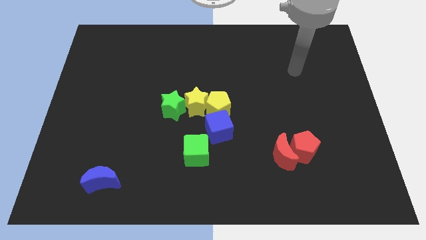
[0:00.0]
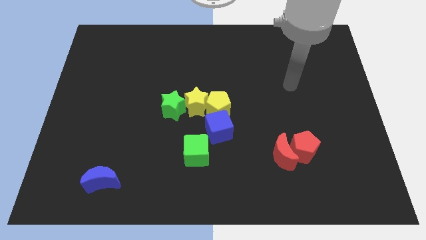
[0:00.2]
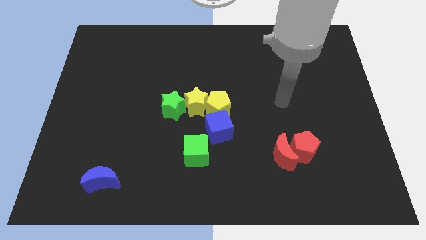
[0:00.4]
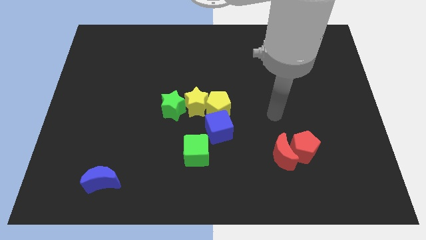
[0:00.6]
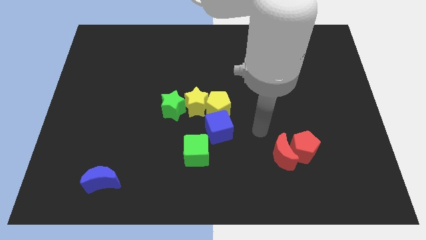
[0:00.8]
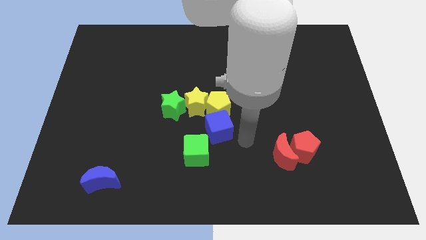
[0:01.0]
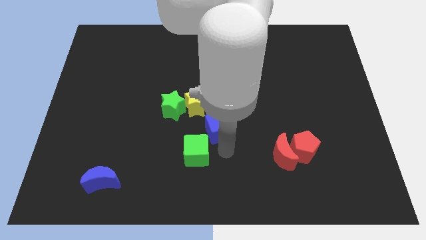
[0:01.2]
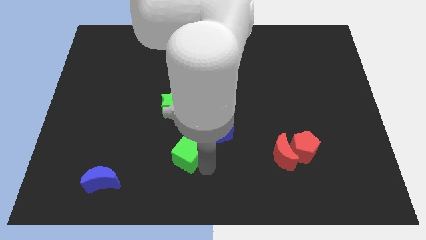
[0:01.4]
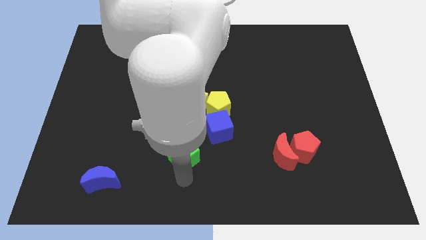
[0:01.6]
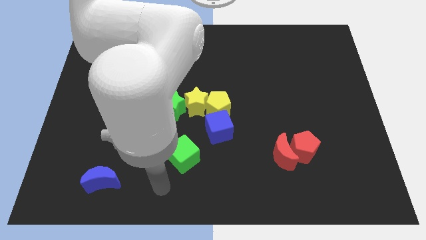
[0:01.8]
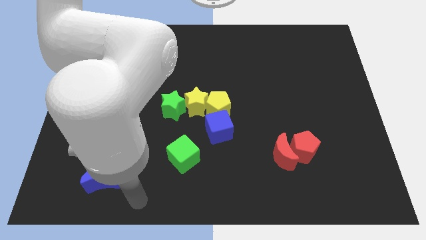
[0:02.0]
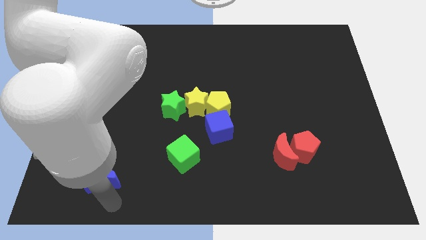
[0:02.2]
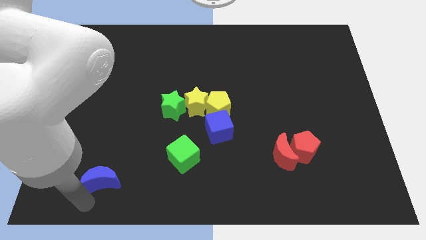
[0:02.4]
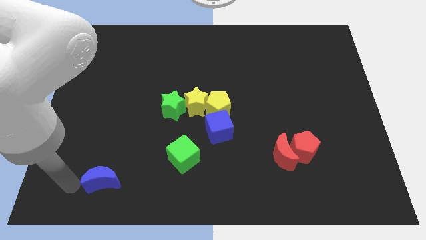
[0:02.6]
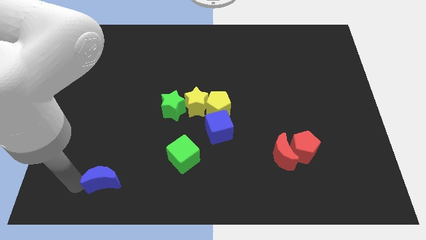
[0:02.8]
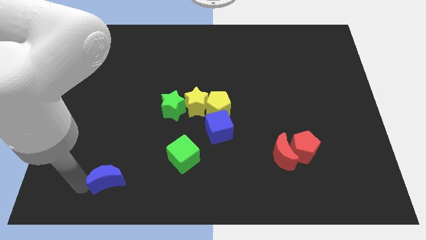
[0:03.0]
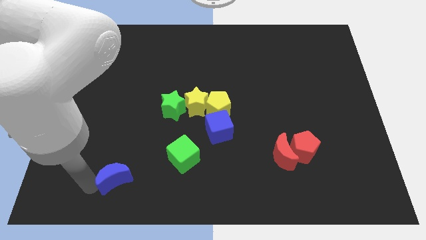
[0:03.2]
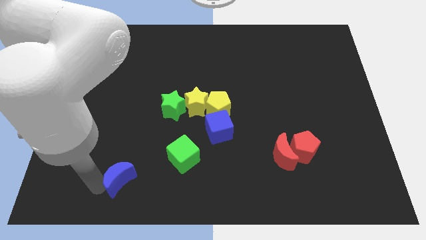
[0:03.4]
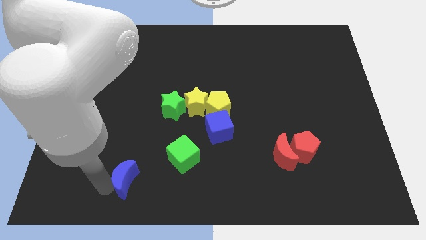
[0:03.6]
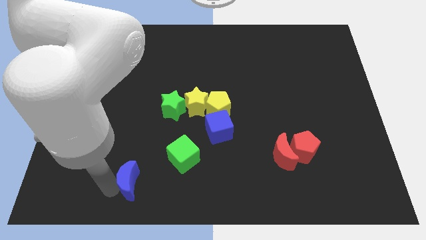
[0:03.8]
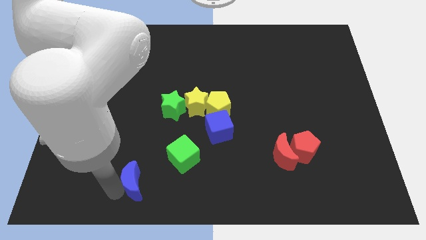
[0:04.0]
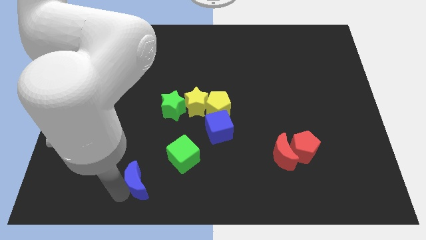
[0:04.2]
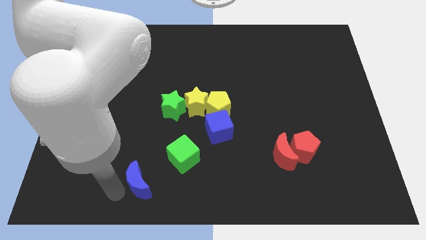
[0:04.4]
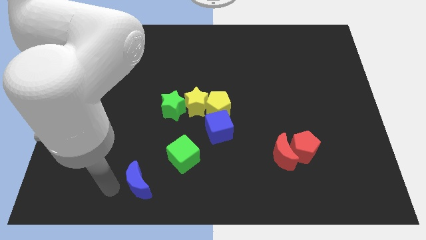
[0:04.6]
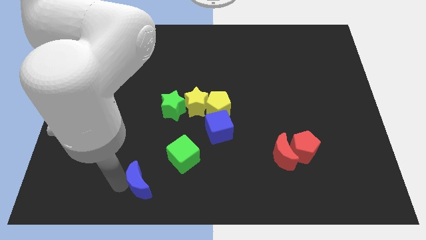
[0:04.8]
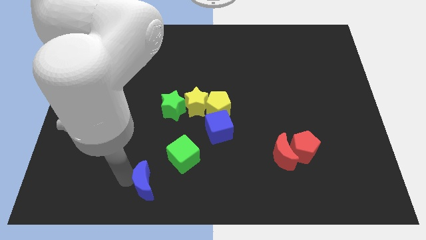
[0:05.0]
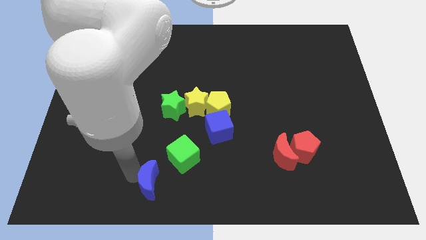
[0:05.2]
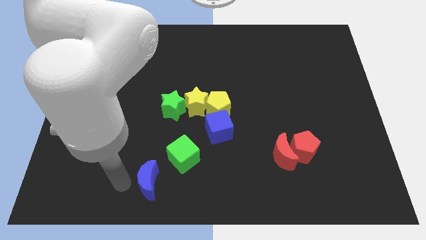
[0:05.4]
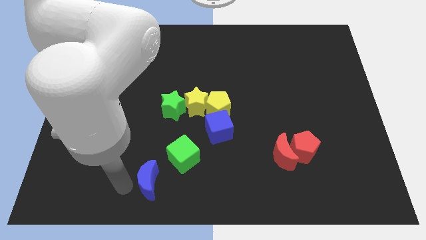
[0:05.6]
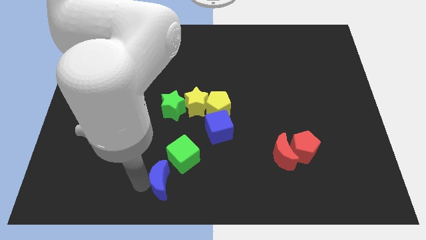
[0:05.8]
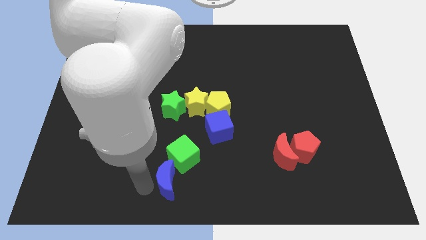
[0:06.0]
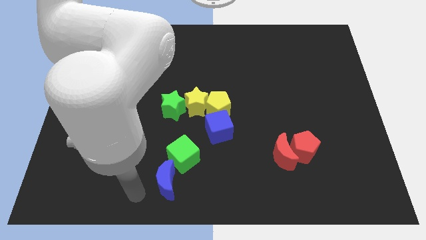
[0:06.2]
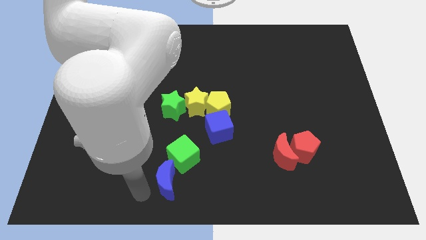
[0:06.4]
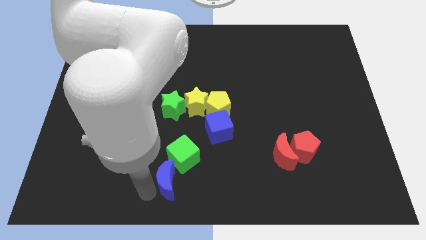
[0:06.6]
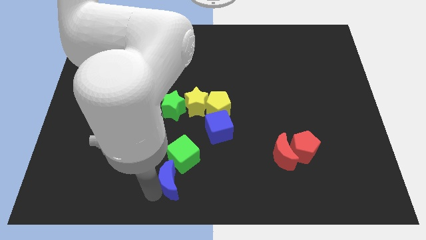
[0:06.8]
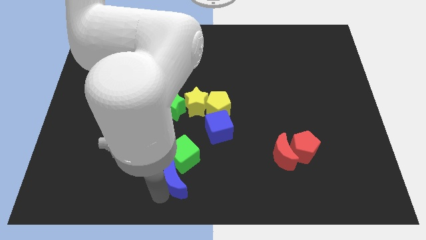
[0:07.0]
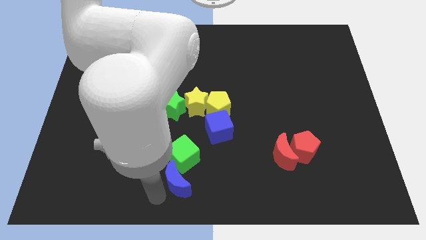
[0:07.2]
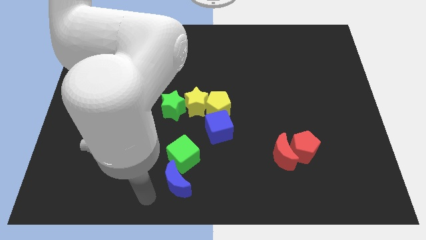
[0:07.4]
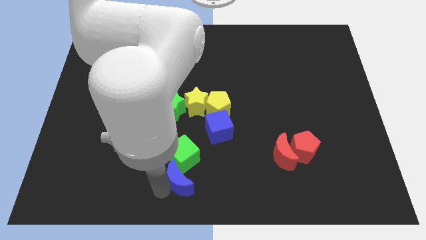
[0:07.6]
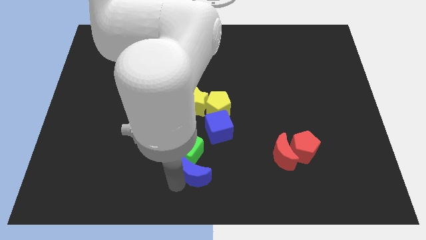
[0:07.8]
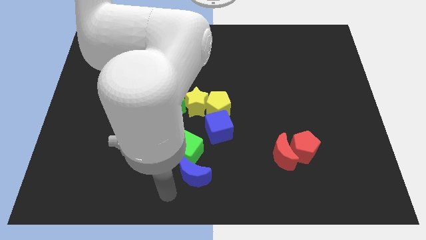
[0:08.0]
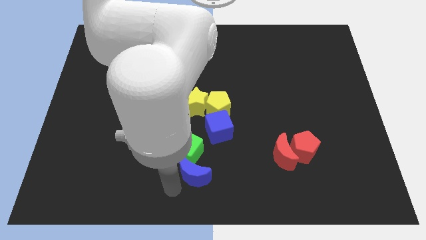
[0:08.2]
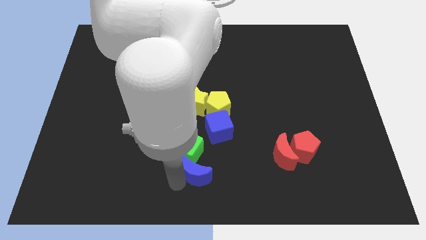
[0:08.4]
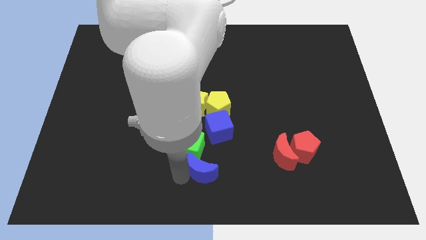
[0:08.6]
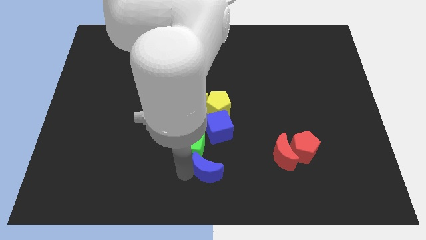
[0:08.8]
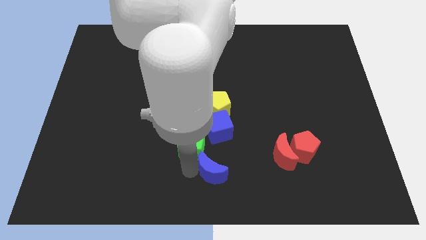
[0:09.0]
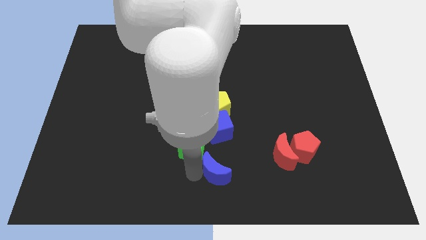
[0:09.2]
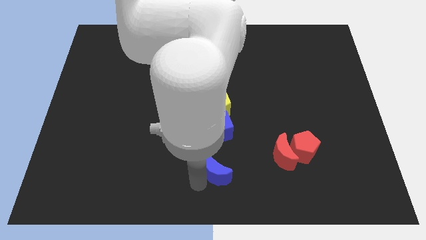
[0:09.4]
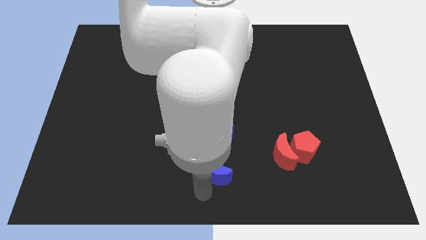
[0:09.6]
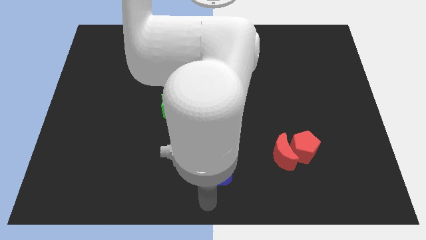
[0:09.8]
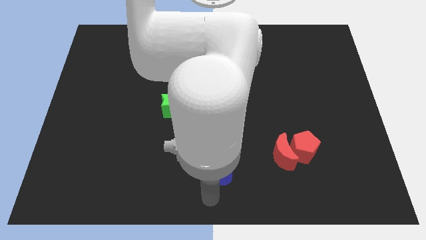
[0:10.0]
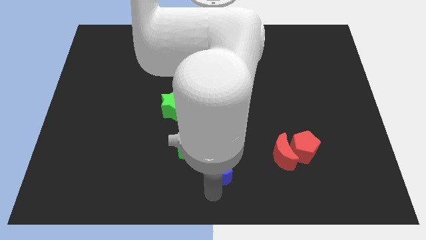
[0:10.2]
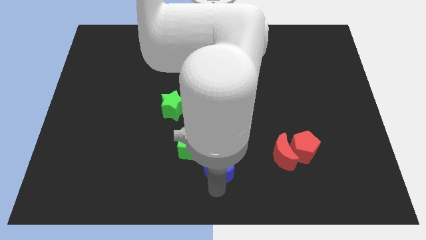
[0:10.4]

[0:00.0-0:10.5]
put the blue moon just left of the red moon

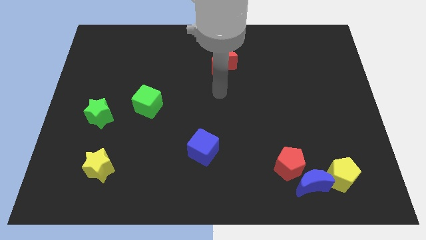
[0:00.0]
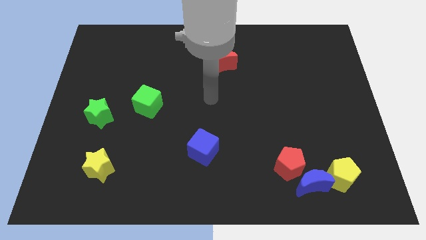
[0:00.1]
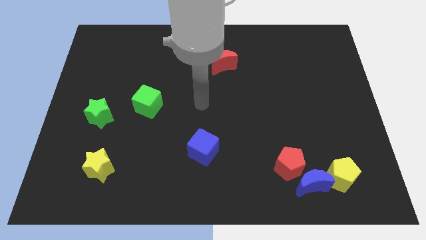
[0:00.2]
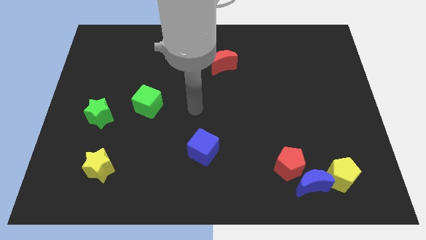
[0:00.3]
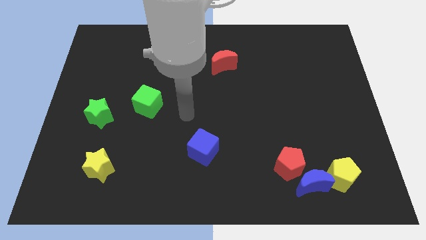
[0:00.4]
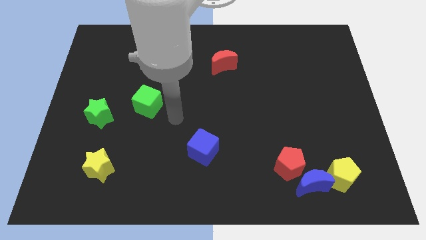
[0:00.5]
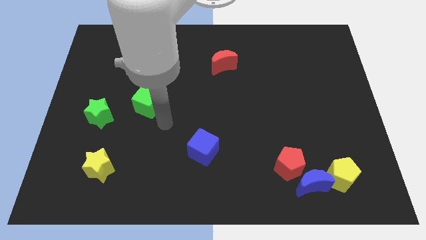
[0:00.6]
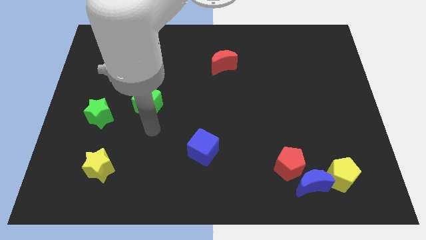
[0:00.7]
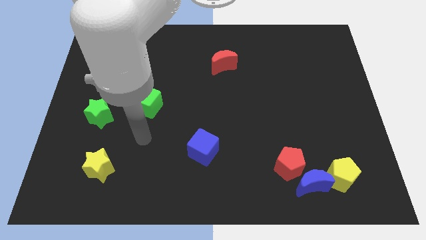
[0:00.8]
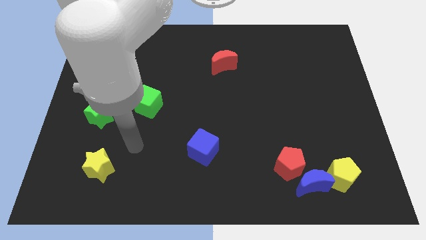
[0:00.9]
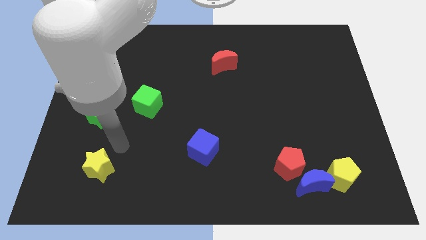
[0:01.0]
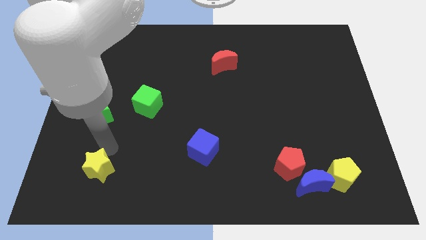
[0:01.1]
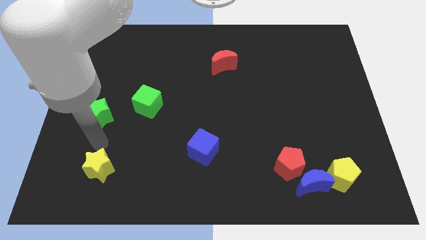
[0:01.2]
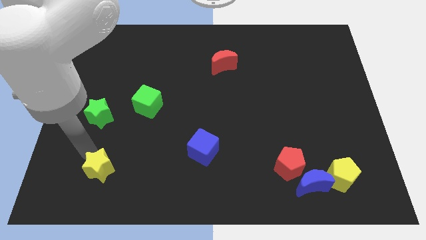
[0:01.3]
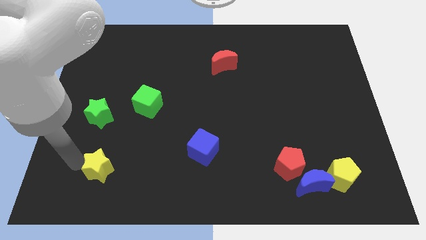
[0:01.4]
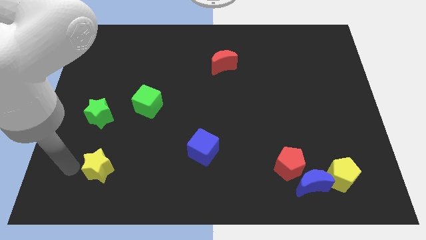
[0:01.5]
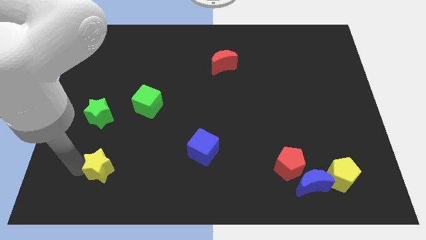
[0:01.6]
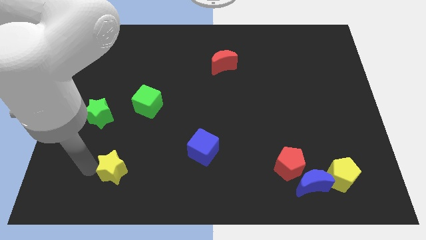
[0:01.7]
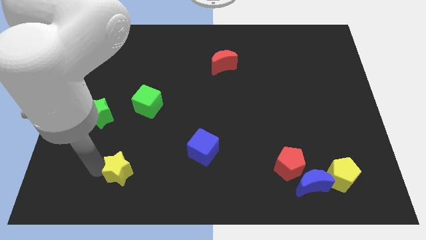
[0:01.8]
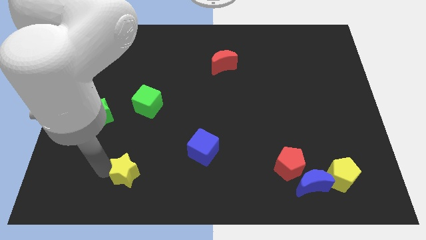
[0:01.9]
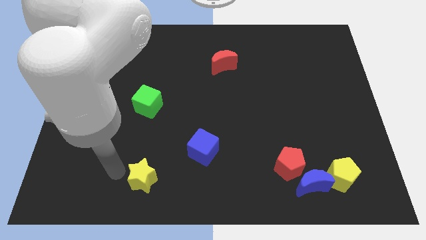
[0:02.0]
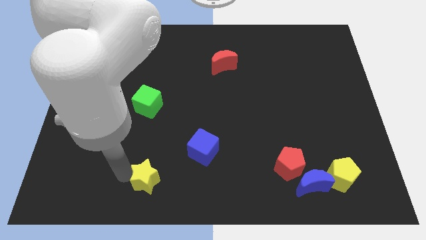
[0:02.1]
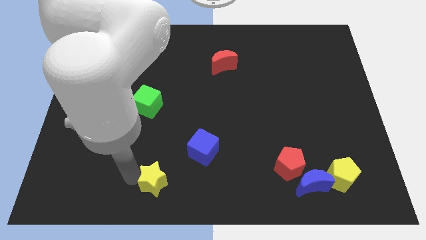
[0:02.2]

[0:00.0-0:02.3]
put the yellow star to the bottom left of the blue cube
